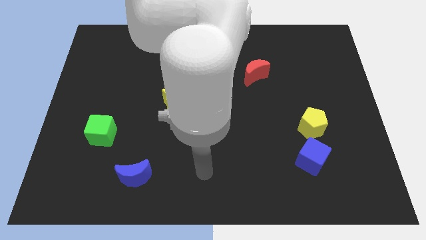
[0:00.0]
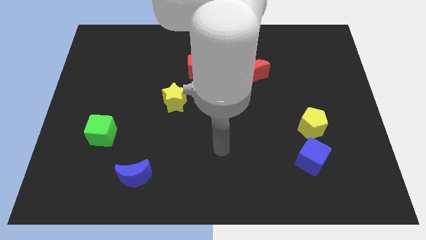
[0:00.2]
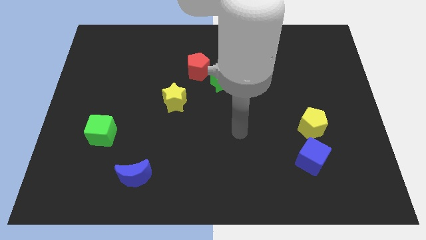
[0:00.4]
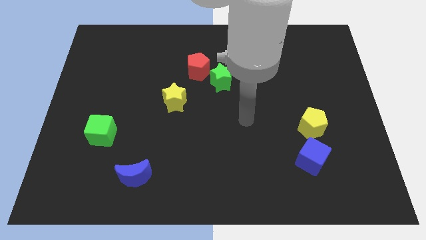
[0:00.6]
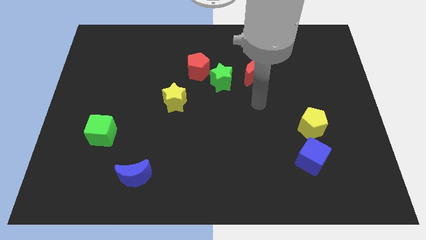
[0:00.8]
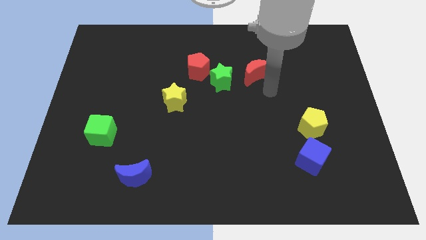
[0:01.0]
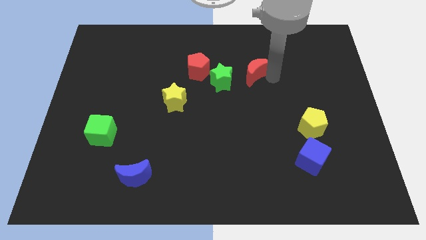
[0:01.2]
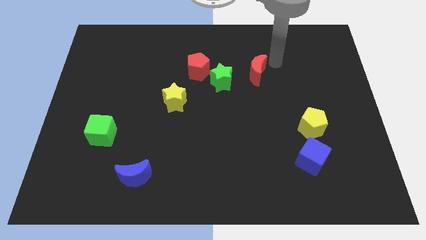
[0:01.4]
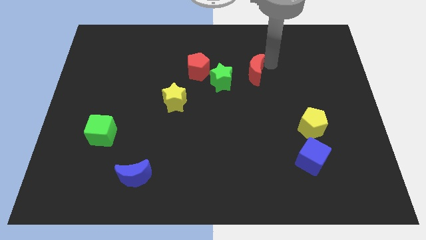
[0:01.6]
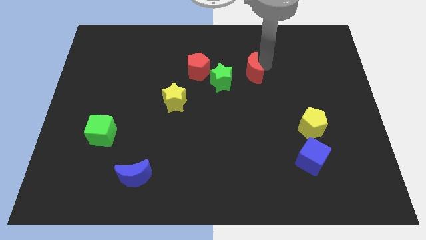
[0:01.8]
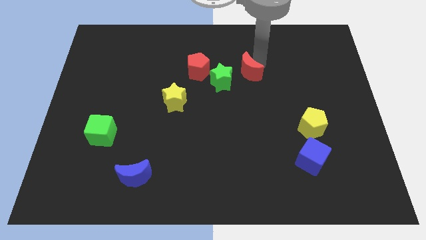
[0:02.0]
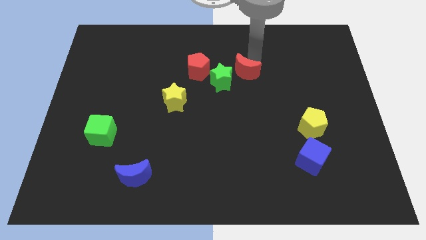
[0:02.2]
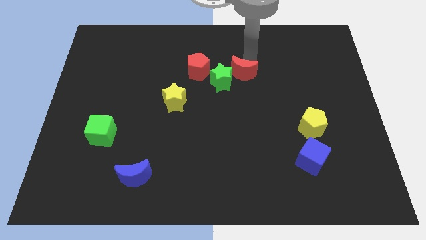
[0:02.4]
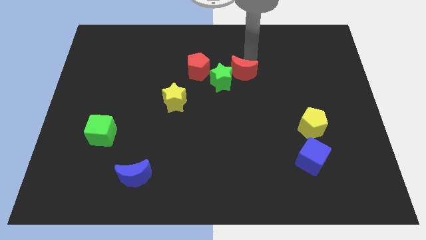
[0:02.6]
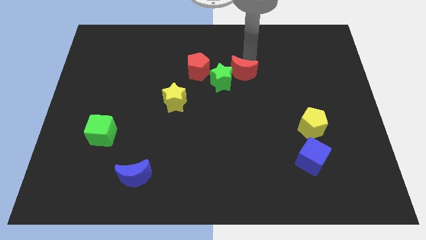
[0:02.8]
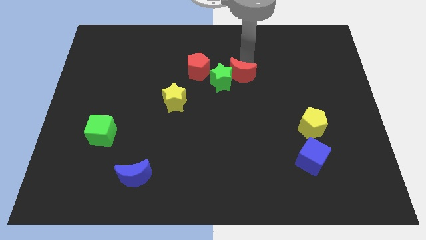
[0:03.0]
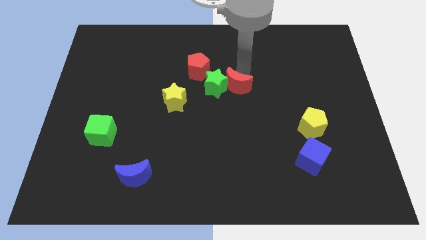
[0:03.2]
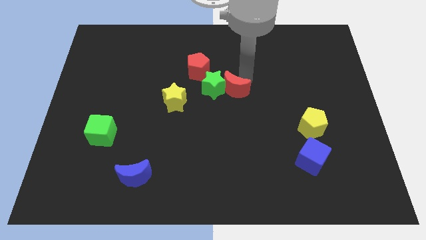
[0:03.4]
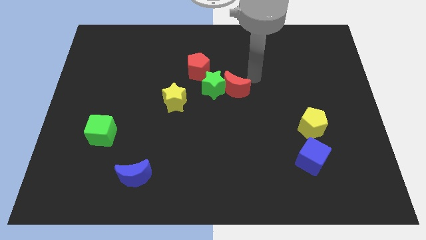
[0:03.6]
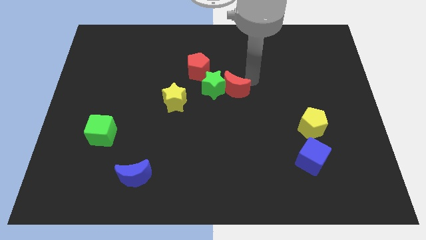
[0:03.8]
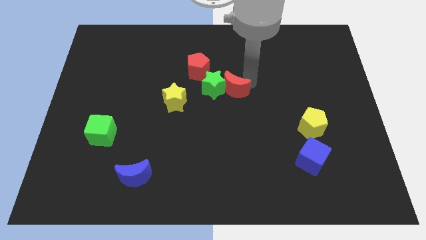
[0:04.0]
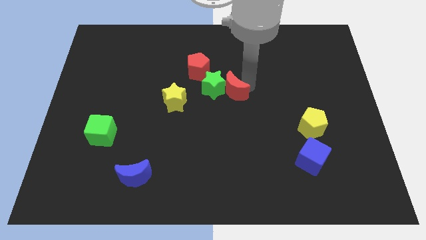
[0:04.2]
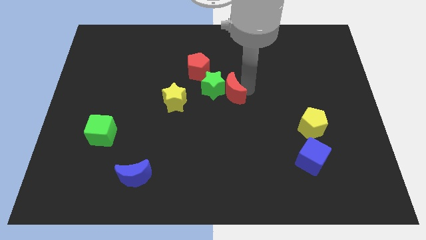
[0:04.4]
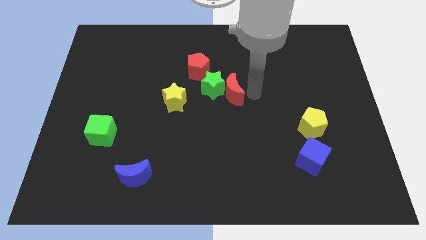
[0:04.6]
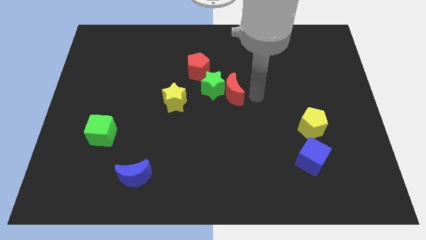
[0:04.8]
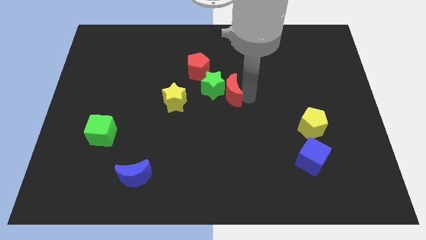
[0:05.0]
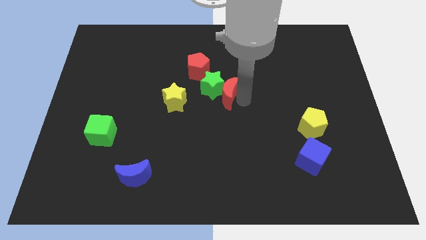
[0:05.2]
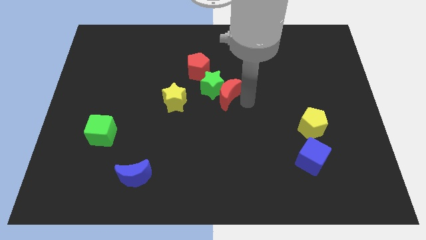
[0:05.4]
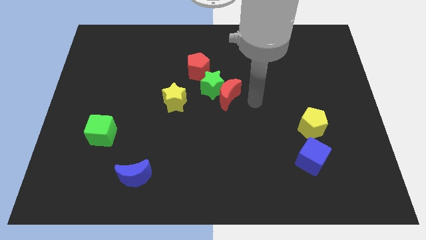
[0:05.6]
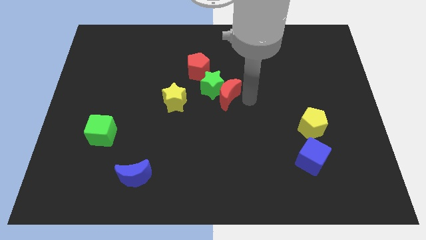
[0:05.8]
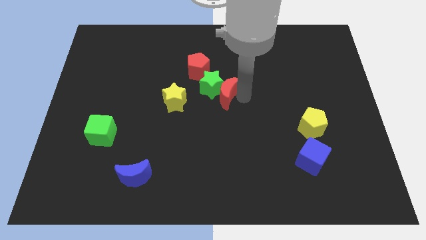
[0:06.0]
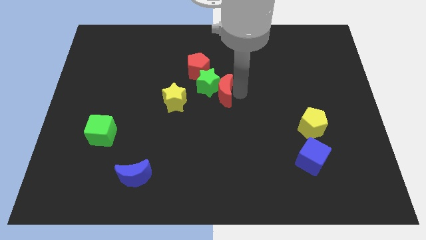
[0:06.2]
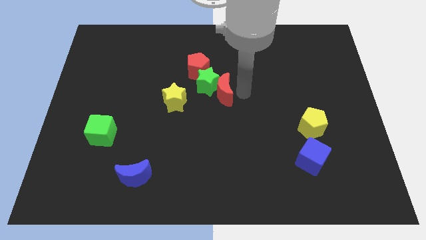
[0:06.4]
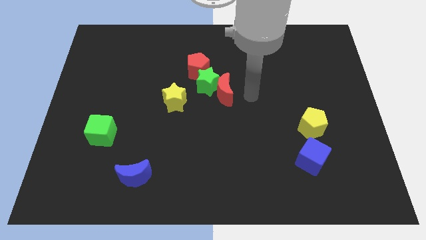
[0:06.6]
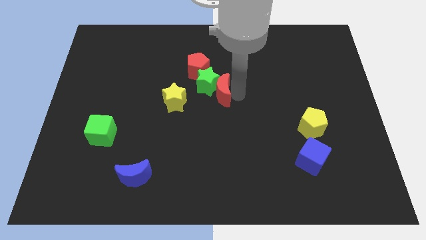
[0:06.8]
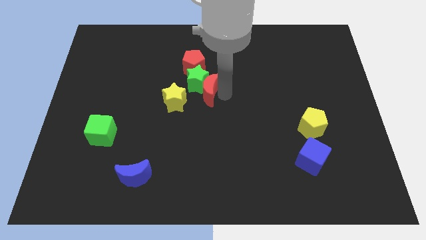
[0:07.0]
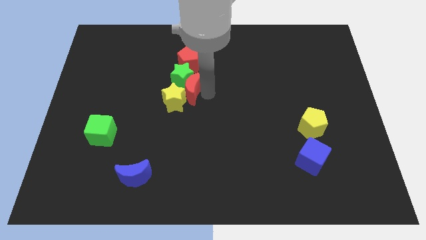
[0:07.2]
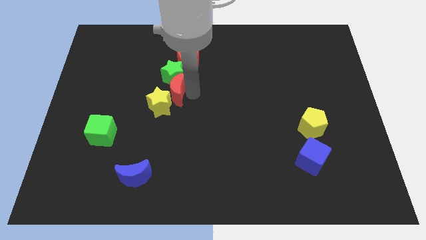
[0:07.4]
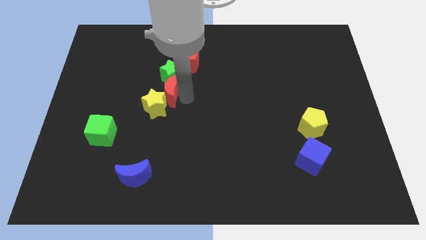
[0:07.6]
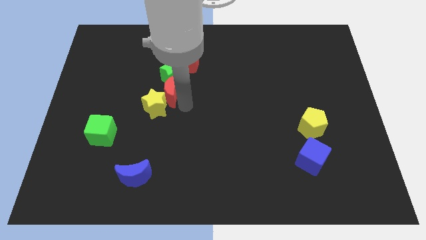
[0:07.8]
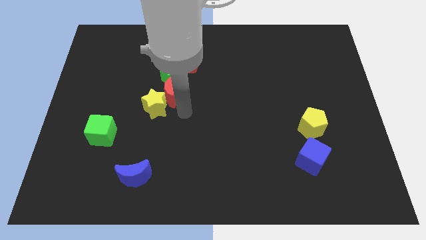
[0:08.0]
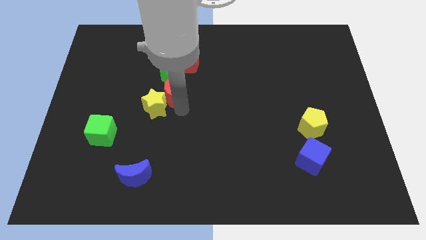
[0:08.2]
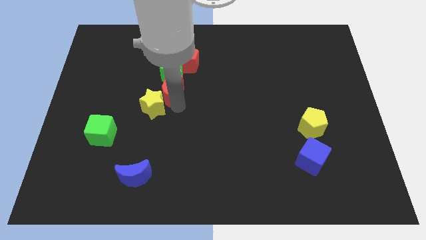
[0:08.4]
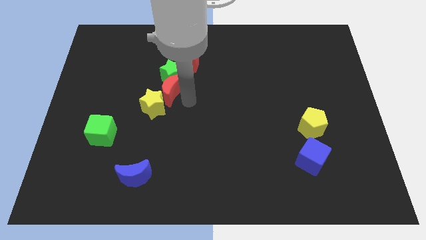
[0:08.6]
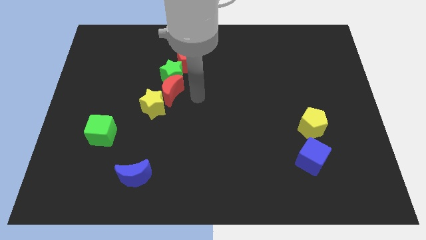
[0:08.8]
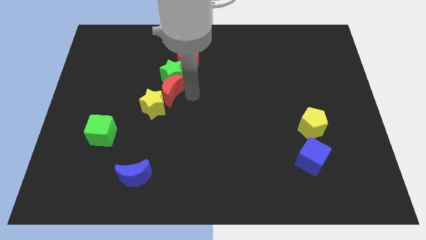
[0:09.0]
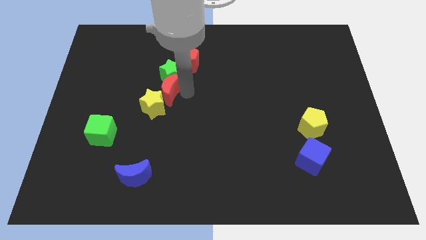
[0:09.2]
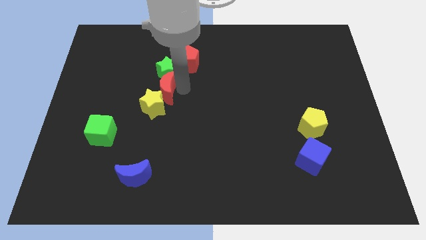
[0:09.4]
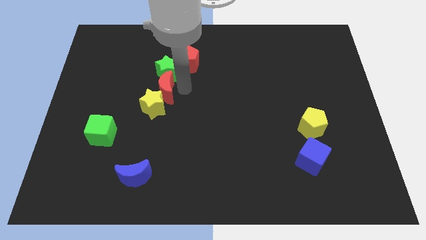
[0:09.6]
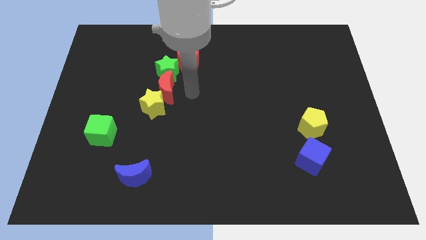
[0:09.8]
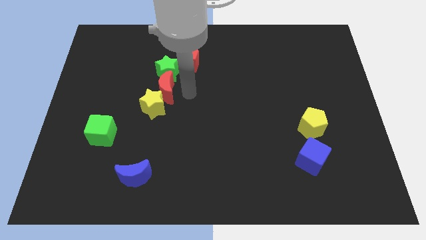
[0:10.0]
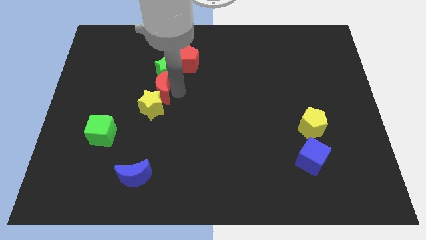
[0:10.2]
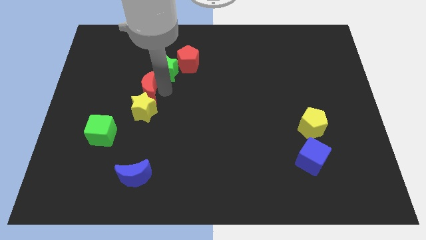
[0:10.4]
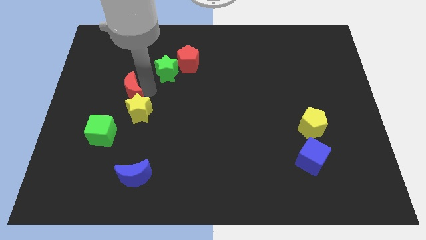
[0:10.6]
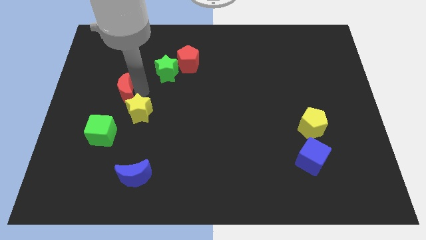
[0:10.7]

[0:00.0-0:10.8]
move the red moon above the green cube

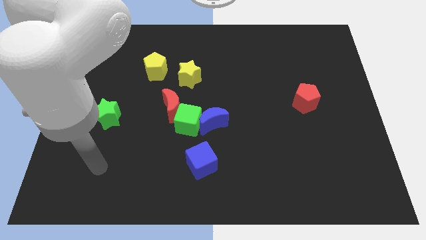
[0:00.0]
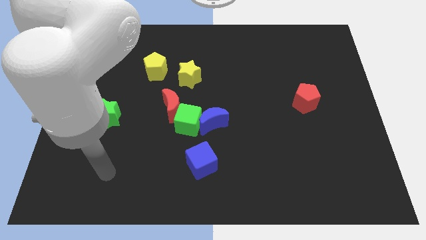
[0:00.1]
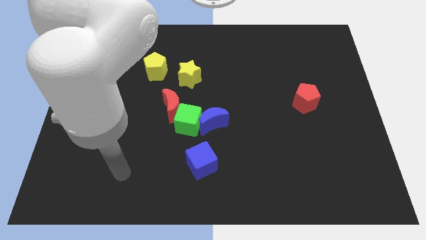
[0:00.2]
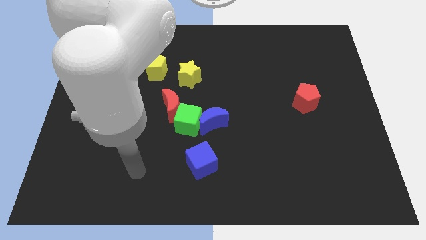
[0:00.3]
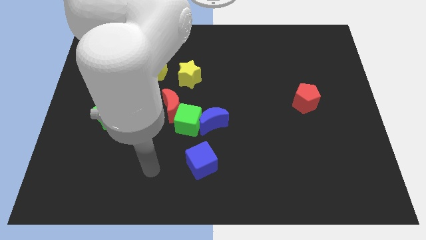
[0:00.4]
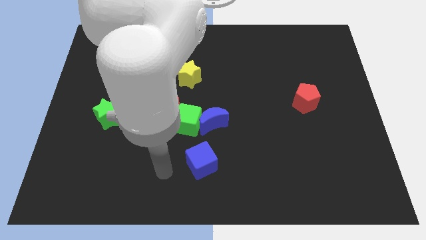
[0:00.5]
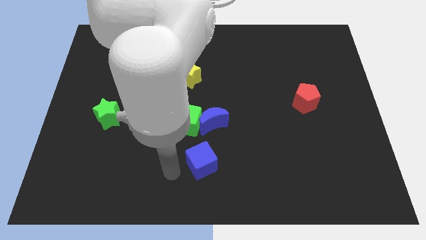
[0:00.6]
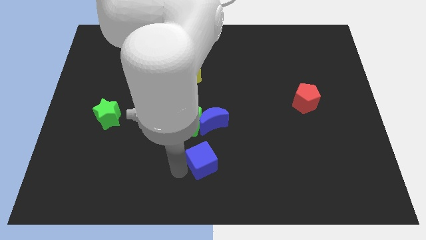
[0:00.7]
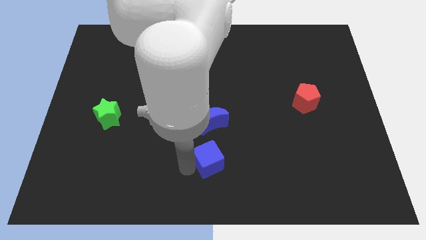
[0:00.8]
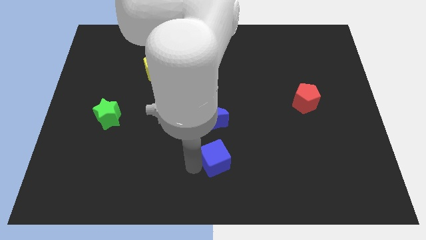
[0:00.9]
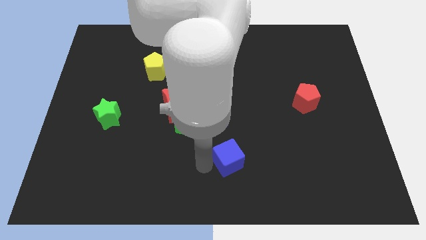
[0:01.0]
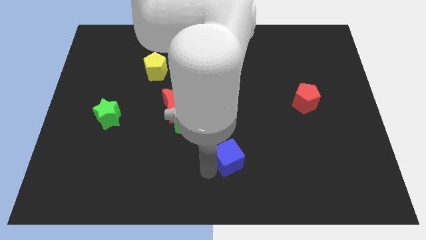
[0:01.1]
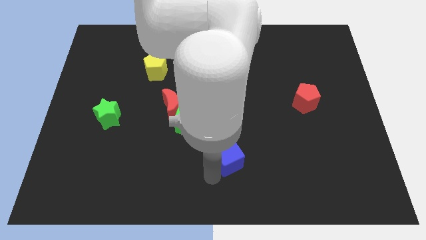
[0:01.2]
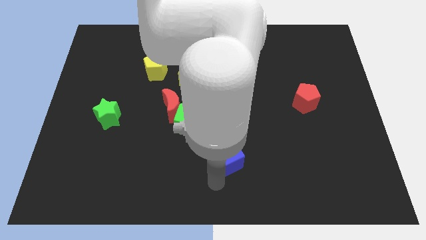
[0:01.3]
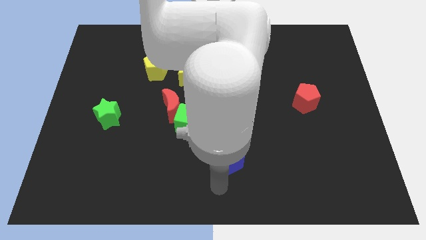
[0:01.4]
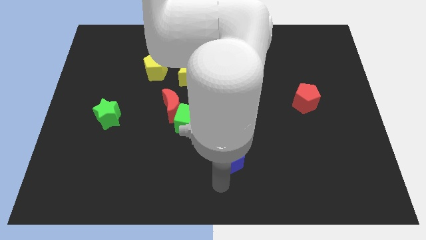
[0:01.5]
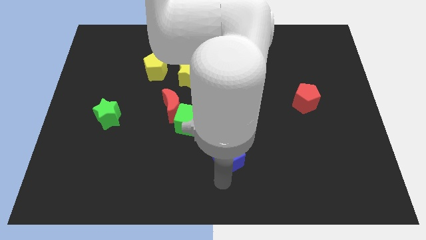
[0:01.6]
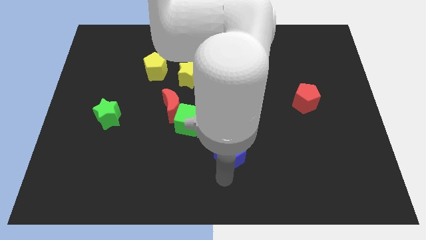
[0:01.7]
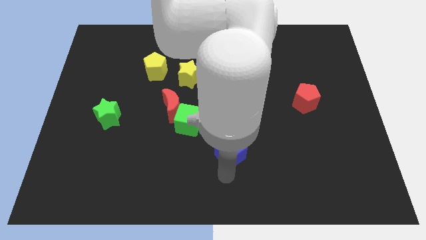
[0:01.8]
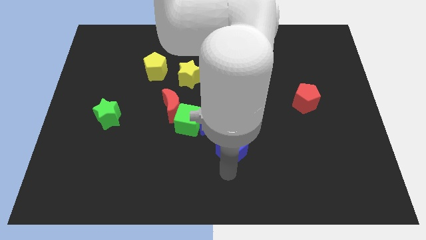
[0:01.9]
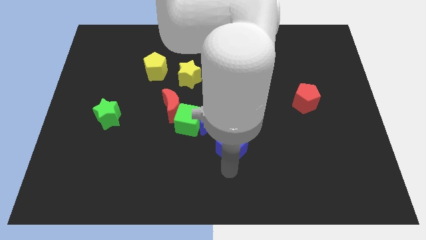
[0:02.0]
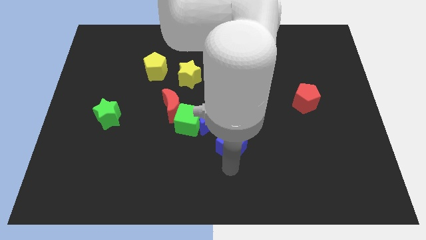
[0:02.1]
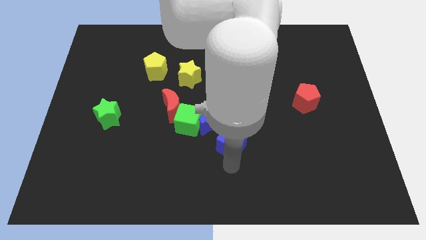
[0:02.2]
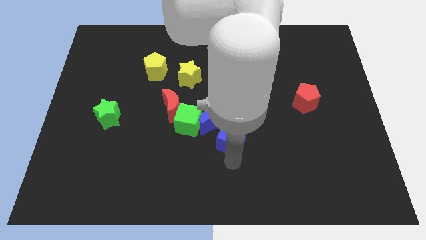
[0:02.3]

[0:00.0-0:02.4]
move the blue cube to the right of the blue moon
